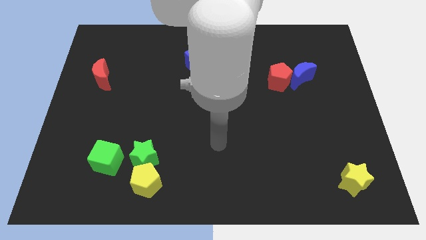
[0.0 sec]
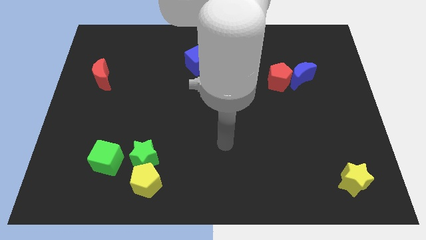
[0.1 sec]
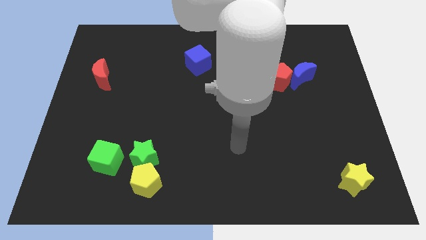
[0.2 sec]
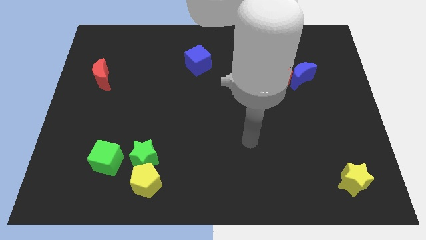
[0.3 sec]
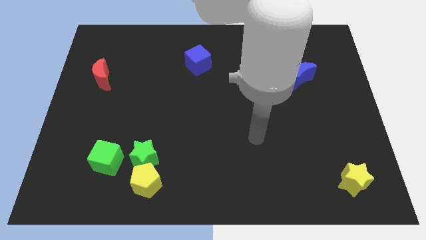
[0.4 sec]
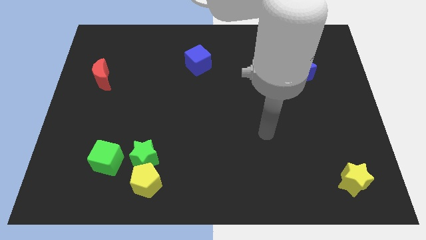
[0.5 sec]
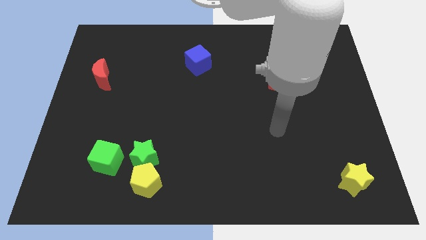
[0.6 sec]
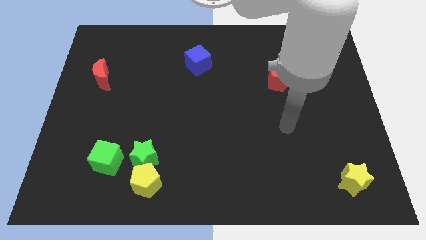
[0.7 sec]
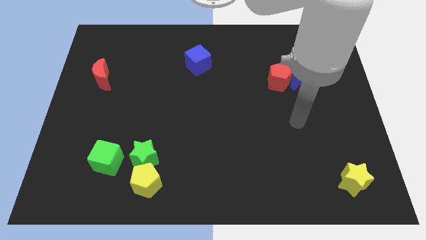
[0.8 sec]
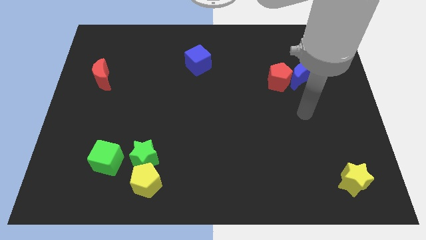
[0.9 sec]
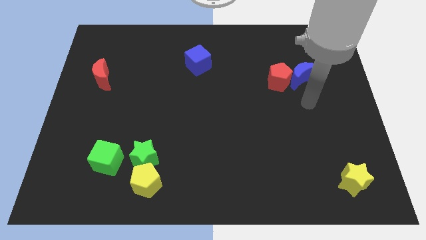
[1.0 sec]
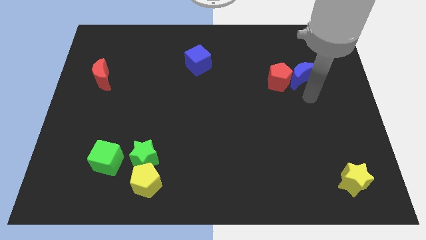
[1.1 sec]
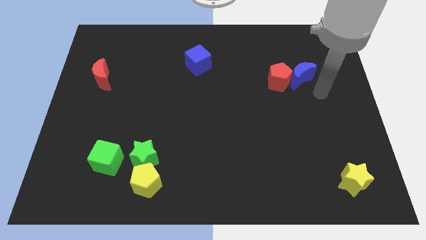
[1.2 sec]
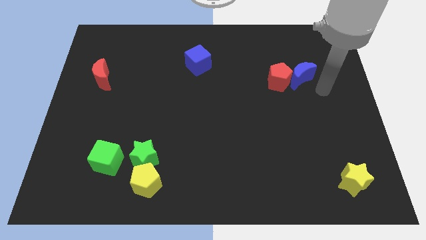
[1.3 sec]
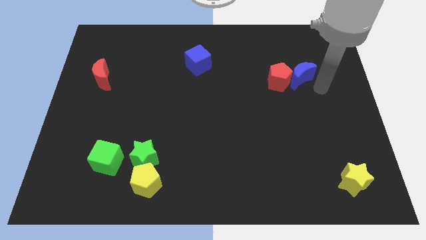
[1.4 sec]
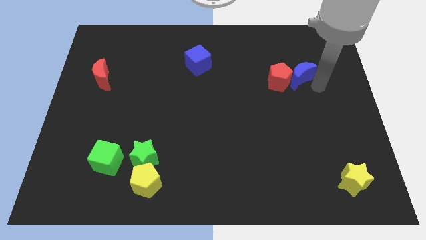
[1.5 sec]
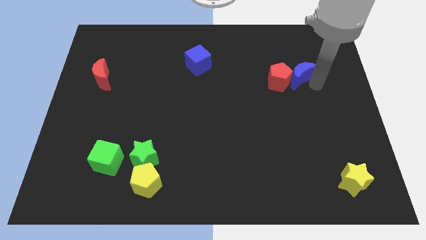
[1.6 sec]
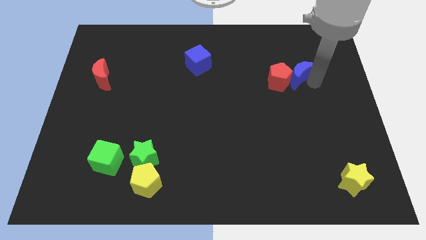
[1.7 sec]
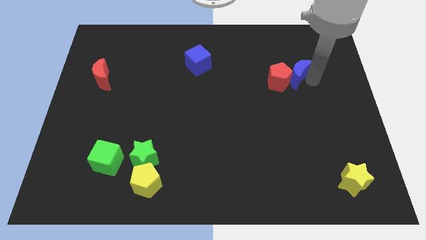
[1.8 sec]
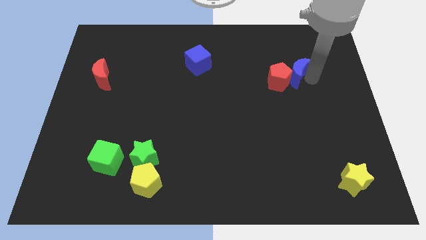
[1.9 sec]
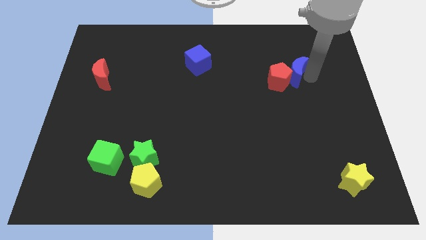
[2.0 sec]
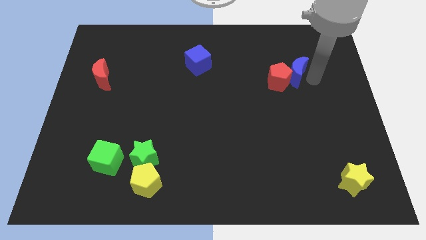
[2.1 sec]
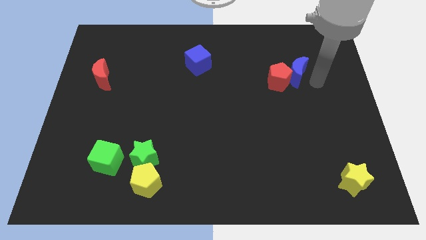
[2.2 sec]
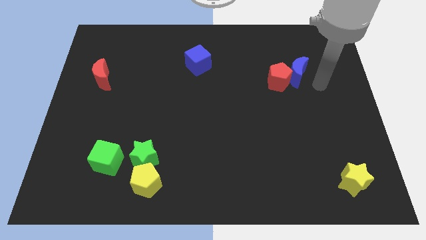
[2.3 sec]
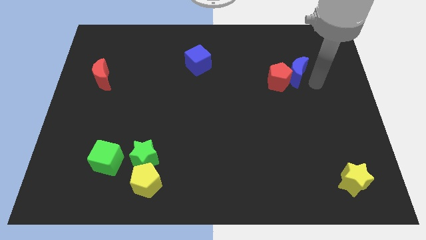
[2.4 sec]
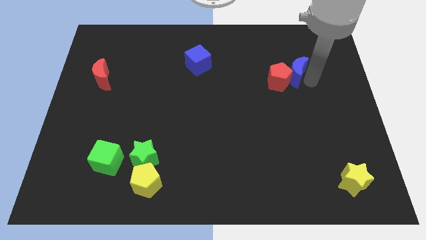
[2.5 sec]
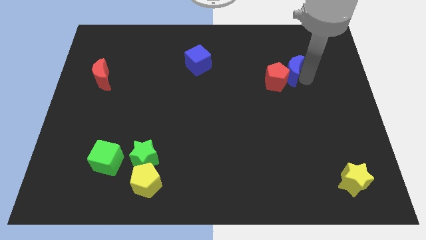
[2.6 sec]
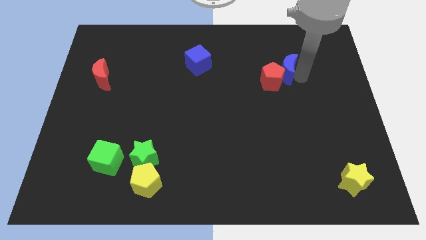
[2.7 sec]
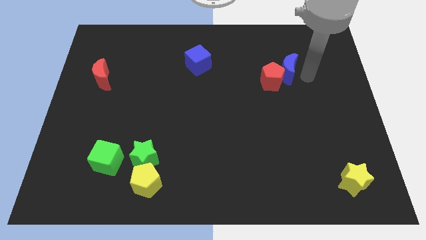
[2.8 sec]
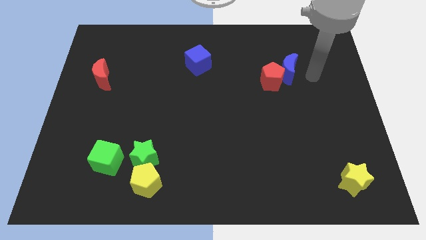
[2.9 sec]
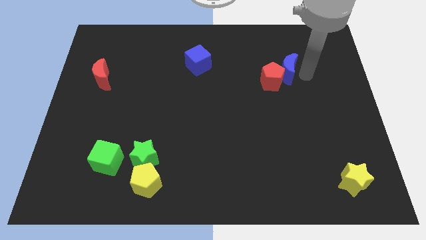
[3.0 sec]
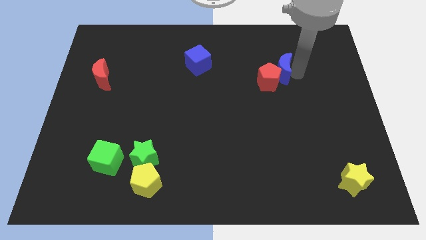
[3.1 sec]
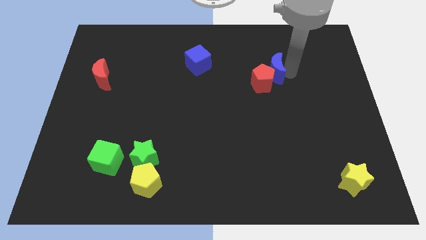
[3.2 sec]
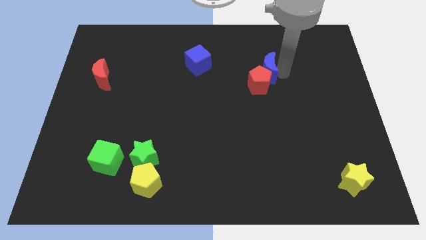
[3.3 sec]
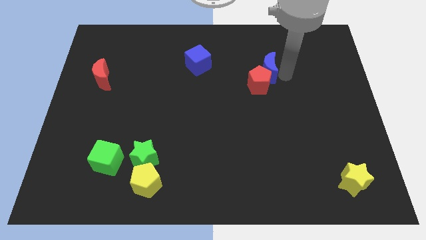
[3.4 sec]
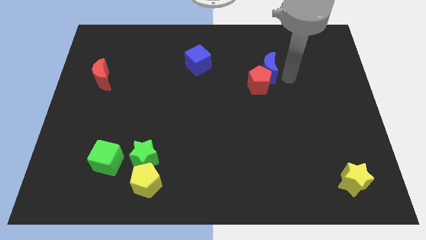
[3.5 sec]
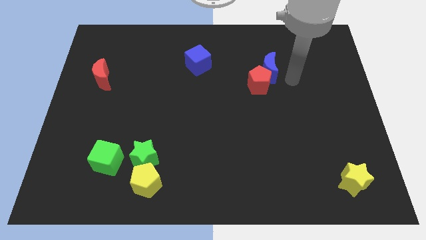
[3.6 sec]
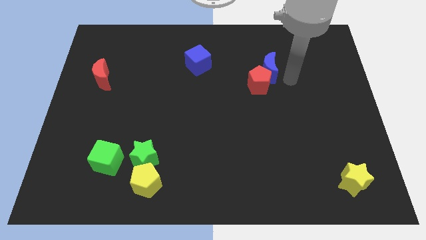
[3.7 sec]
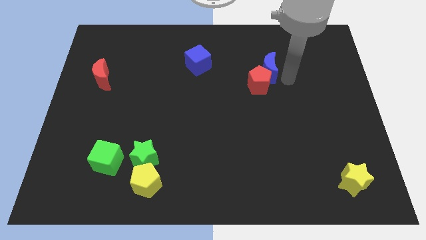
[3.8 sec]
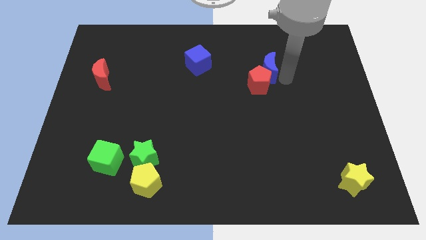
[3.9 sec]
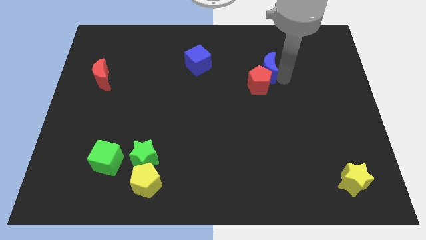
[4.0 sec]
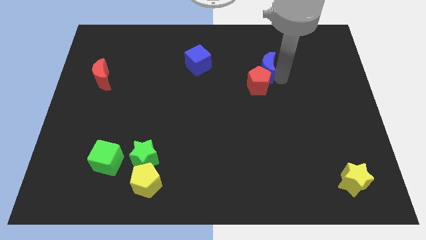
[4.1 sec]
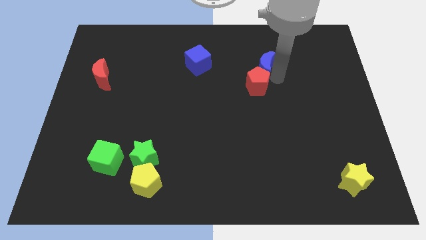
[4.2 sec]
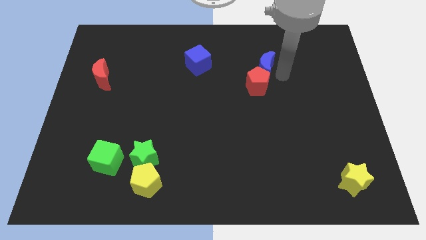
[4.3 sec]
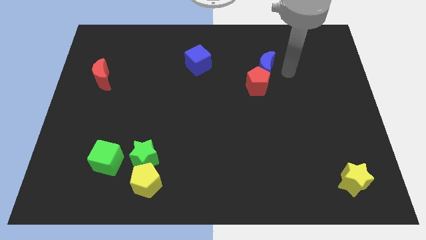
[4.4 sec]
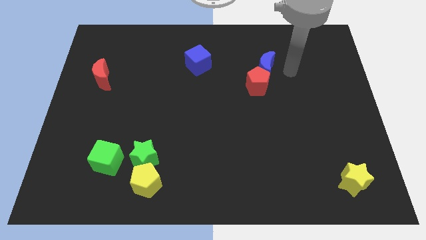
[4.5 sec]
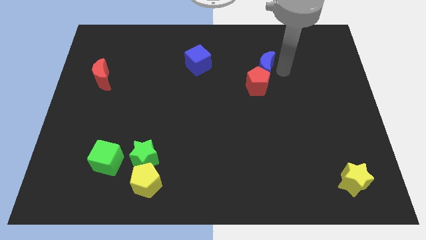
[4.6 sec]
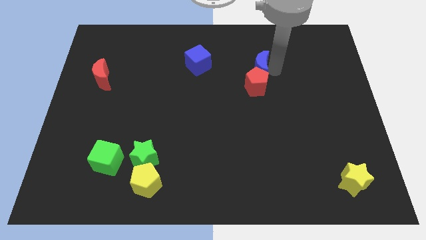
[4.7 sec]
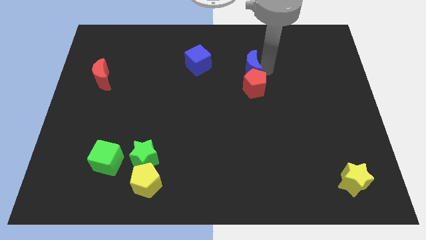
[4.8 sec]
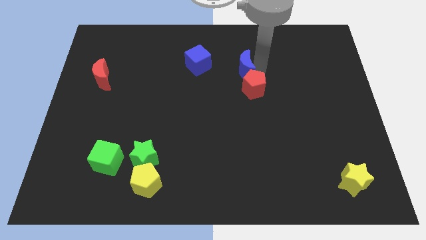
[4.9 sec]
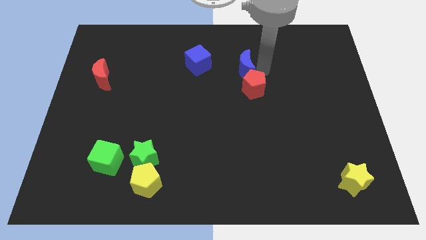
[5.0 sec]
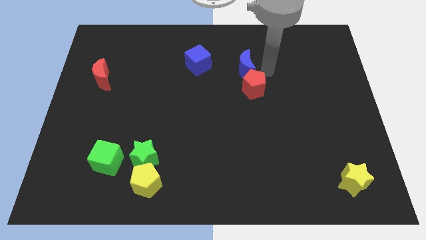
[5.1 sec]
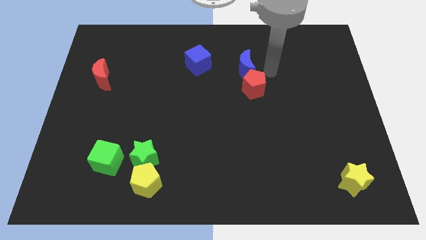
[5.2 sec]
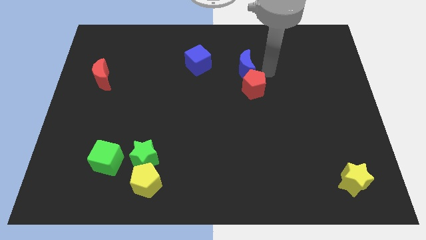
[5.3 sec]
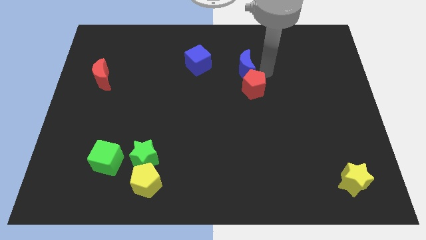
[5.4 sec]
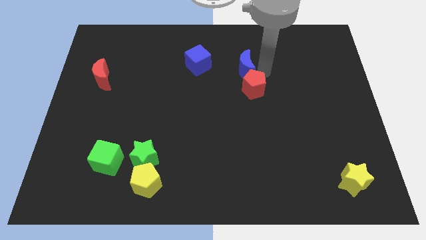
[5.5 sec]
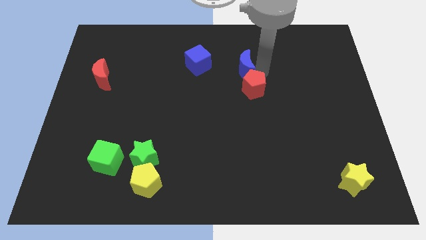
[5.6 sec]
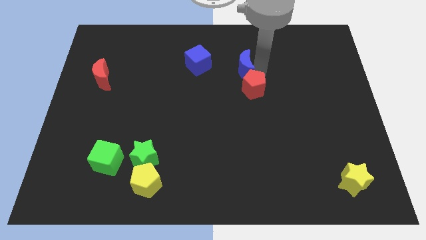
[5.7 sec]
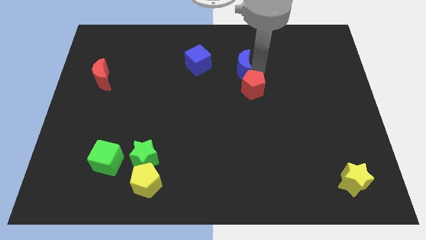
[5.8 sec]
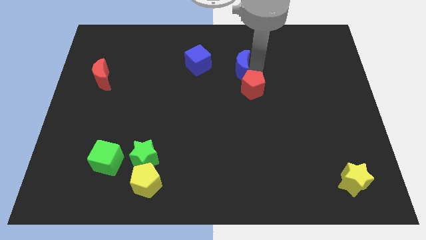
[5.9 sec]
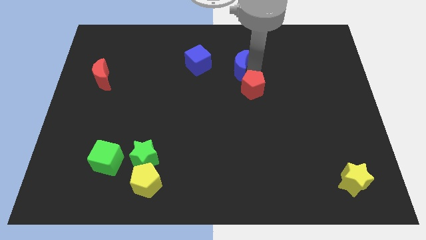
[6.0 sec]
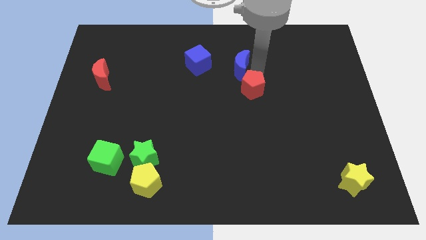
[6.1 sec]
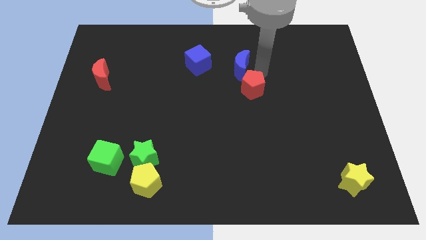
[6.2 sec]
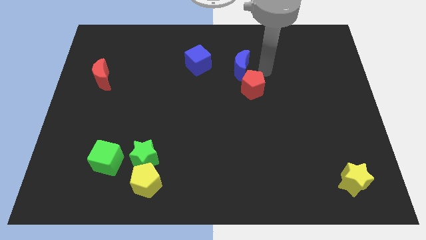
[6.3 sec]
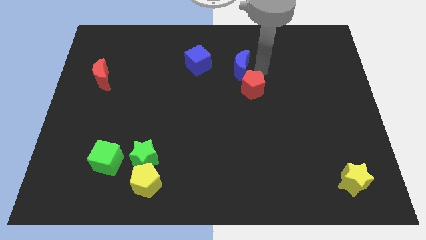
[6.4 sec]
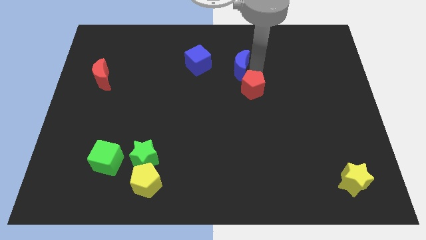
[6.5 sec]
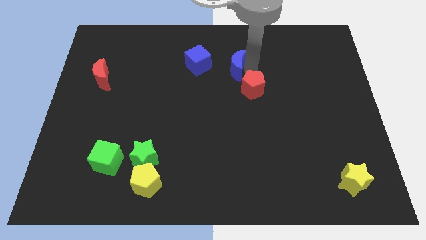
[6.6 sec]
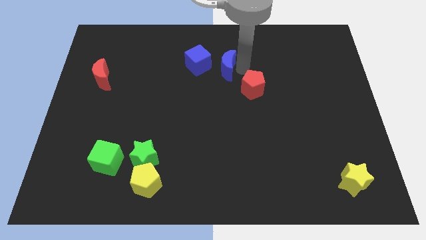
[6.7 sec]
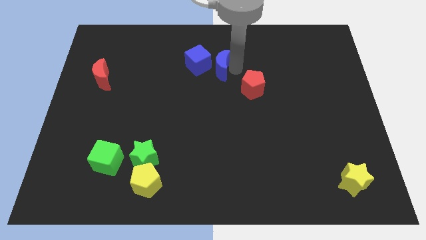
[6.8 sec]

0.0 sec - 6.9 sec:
put the blue moon next to the blue cube

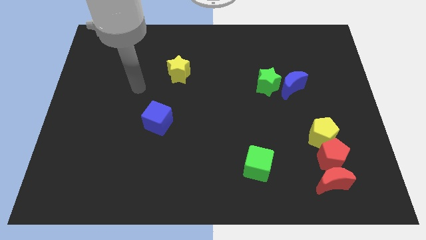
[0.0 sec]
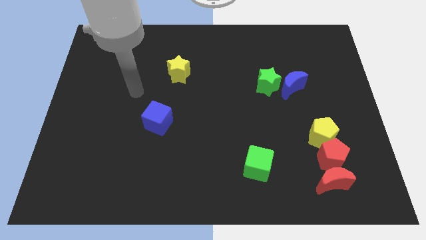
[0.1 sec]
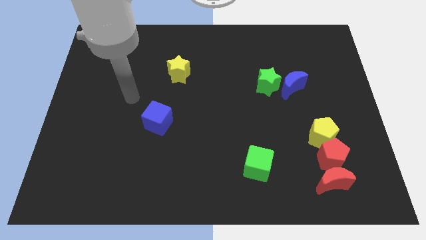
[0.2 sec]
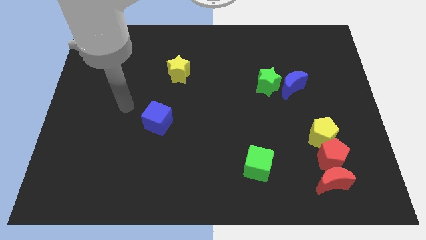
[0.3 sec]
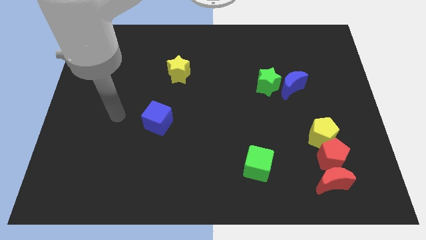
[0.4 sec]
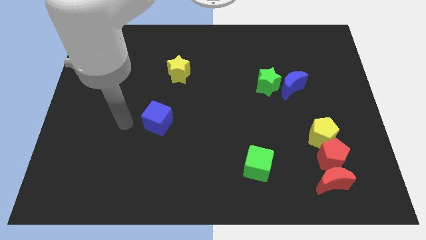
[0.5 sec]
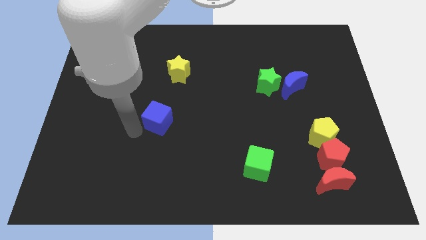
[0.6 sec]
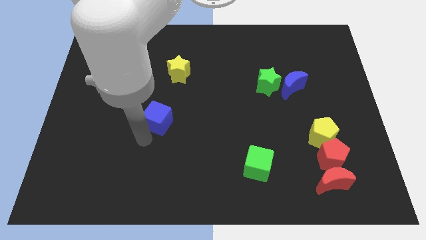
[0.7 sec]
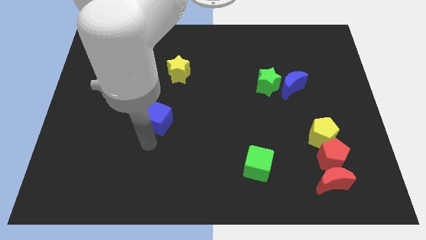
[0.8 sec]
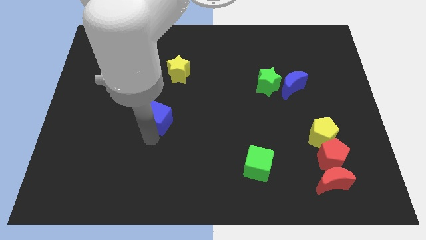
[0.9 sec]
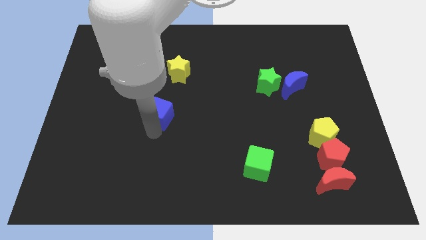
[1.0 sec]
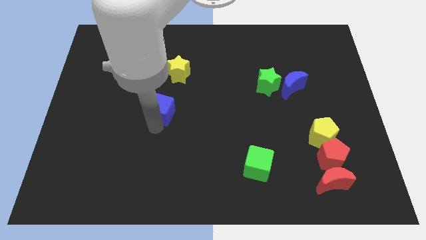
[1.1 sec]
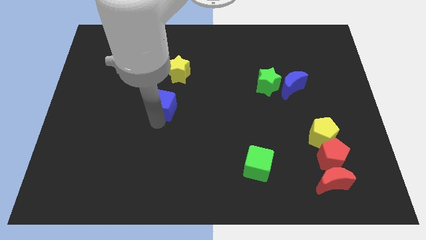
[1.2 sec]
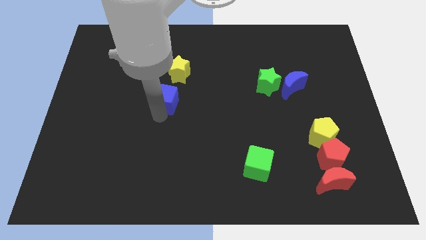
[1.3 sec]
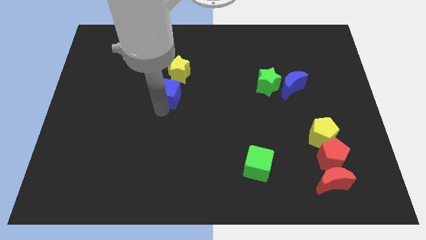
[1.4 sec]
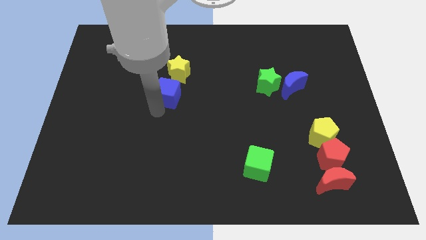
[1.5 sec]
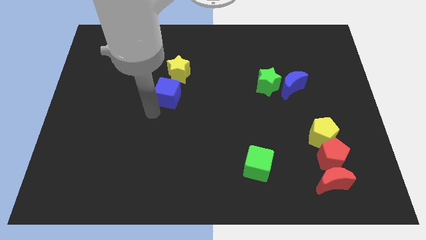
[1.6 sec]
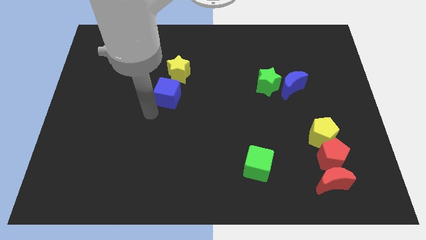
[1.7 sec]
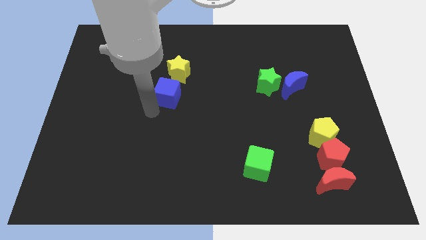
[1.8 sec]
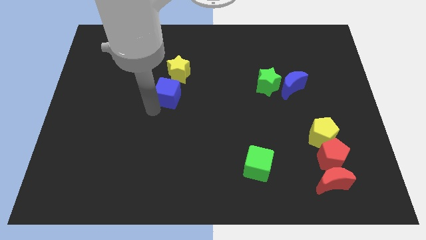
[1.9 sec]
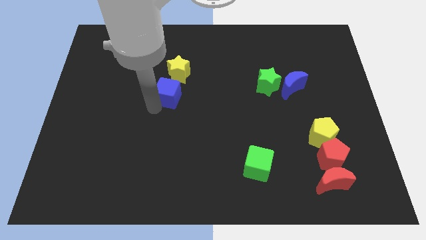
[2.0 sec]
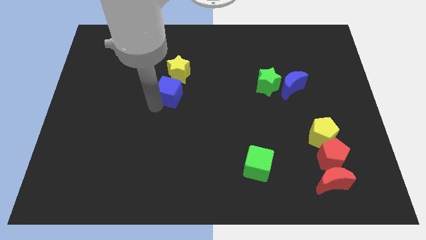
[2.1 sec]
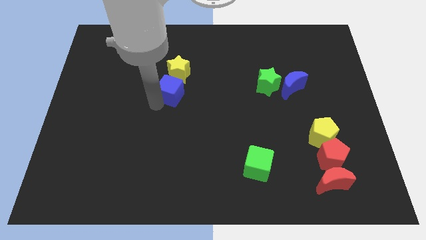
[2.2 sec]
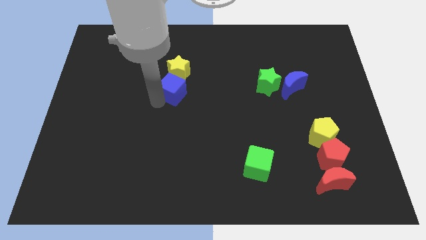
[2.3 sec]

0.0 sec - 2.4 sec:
put the blue cube close to the yellow star
